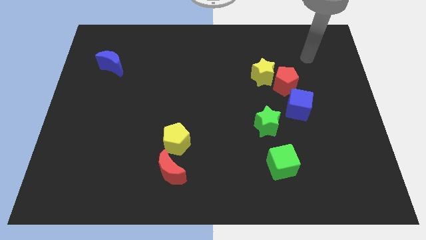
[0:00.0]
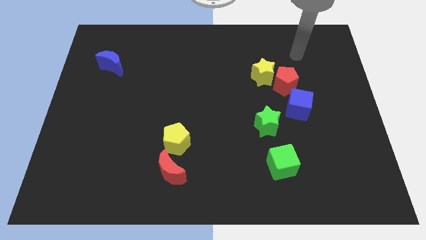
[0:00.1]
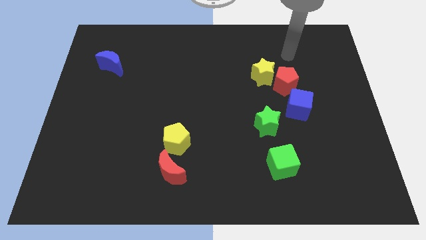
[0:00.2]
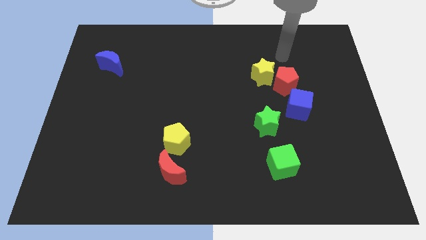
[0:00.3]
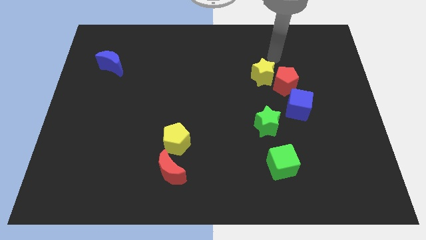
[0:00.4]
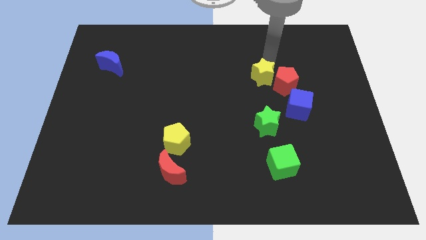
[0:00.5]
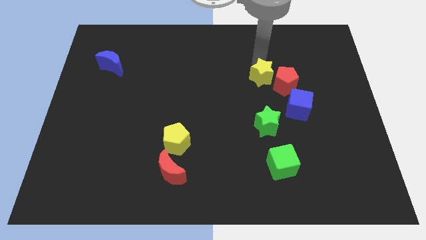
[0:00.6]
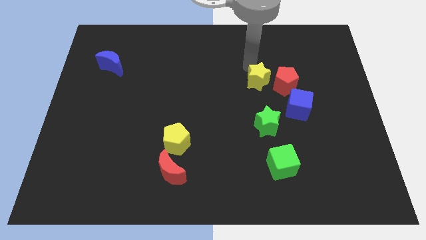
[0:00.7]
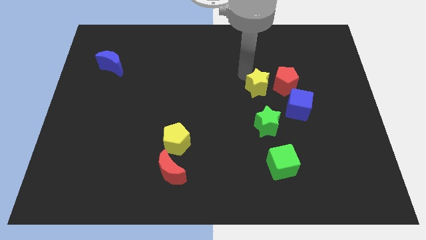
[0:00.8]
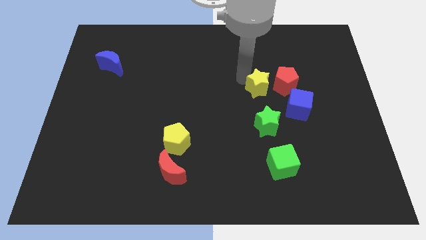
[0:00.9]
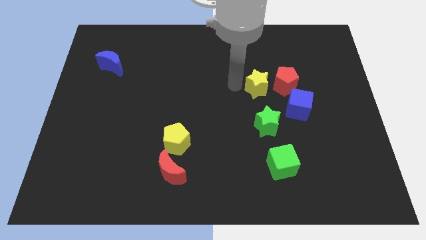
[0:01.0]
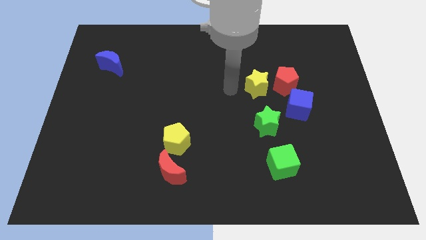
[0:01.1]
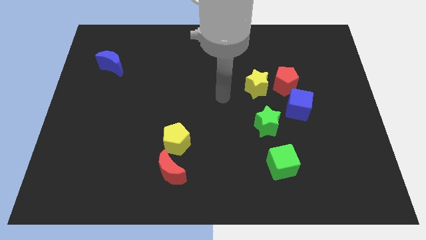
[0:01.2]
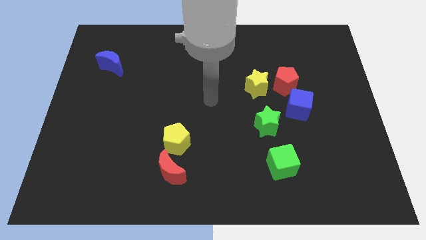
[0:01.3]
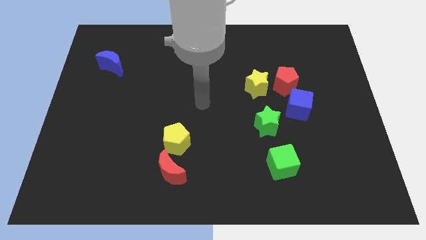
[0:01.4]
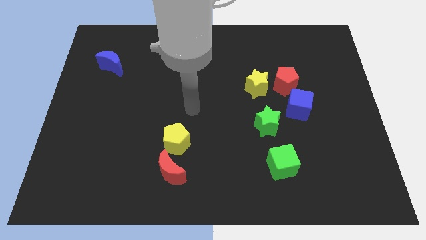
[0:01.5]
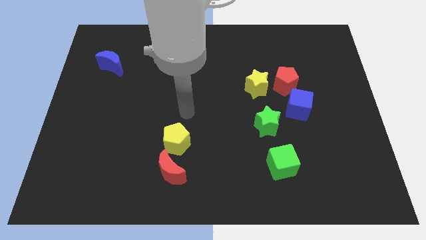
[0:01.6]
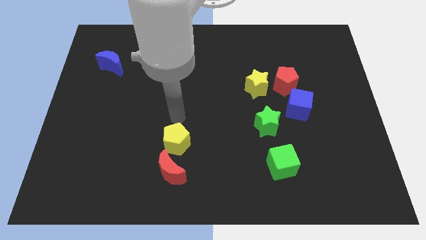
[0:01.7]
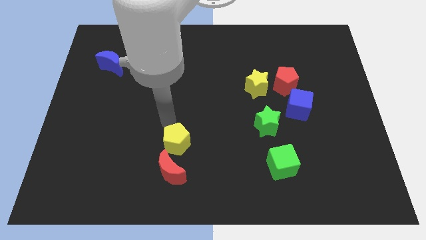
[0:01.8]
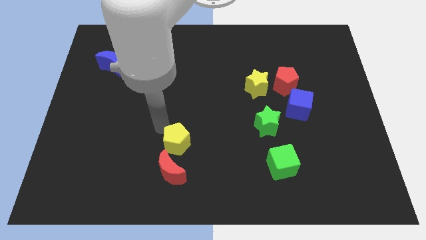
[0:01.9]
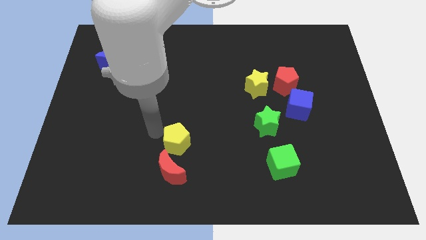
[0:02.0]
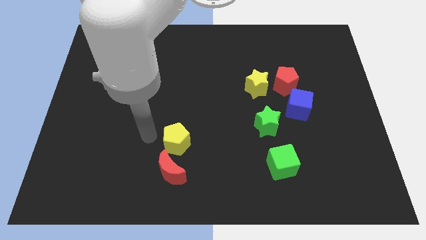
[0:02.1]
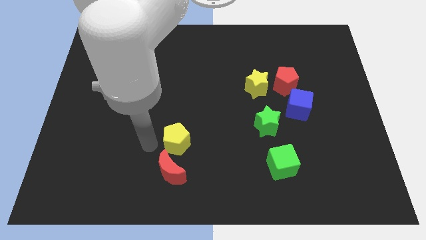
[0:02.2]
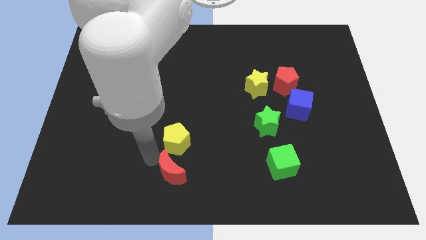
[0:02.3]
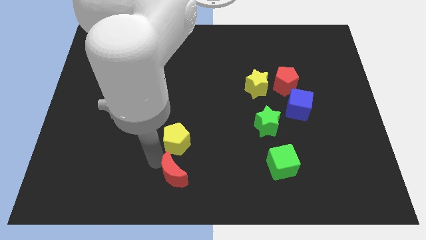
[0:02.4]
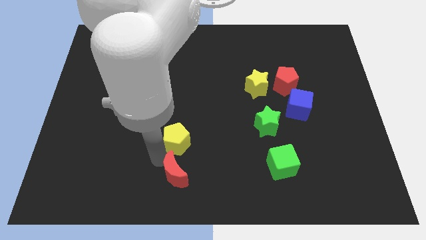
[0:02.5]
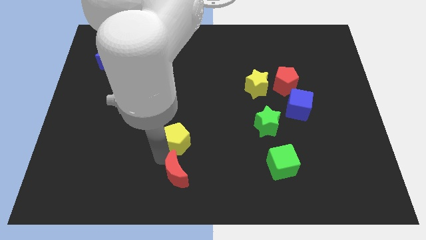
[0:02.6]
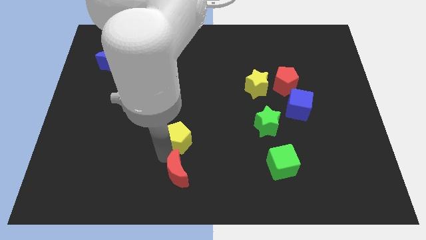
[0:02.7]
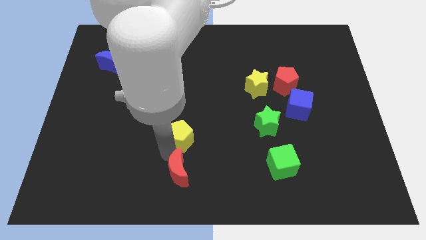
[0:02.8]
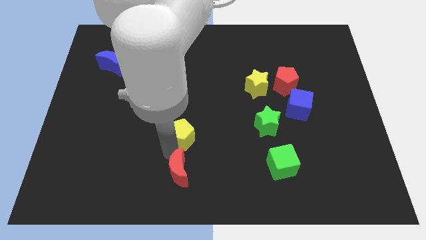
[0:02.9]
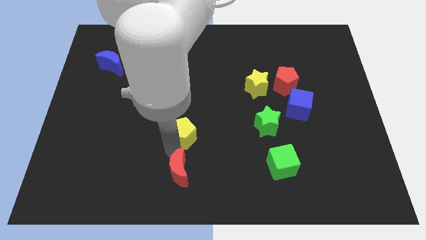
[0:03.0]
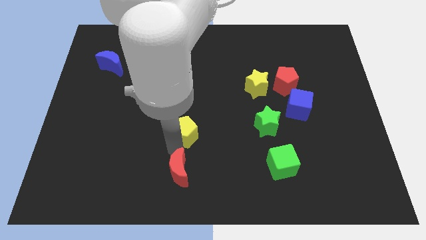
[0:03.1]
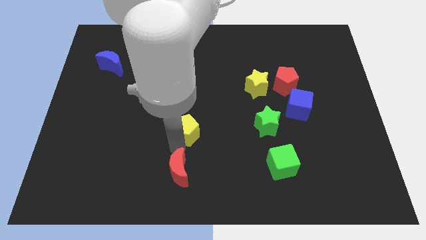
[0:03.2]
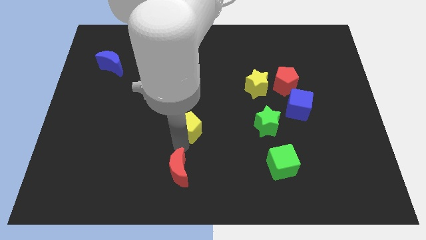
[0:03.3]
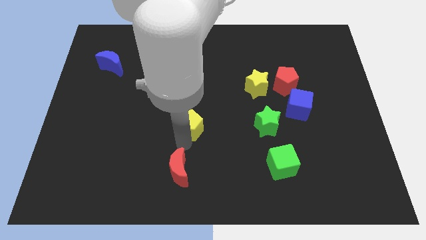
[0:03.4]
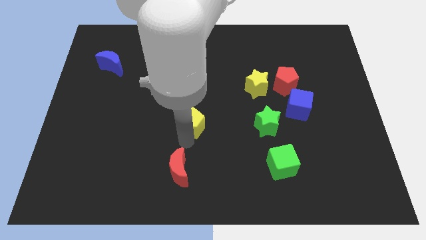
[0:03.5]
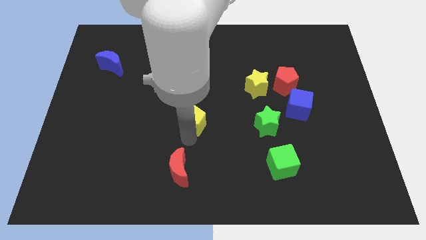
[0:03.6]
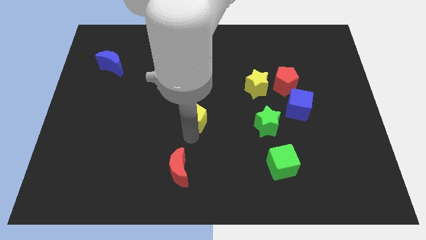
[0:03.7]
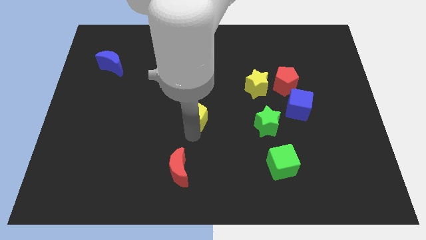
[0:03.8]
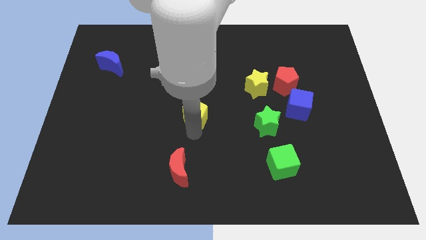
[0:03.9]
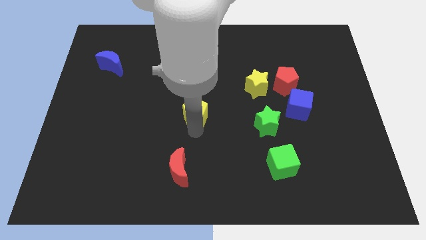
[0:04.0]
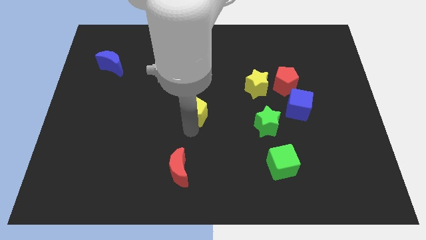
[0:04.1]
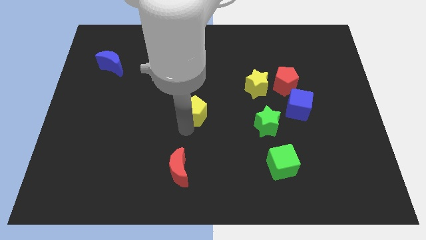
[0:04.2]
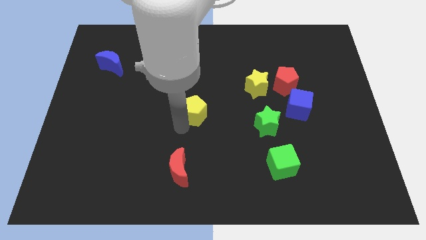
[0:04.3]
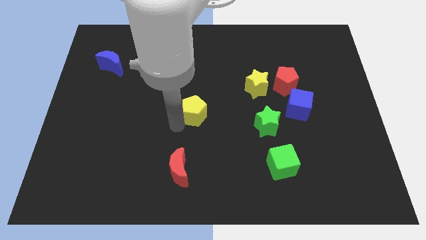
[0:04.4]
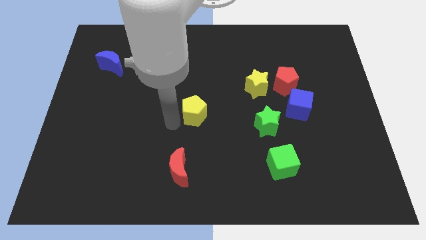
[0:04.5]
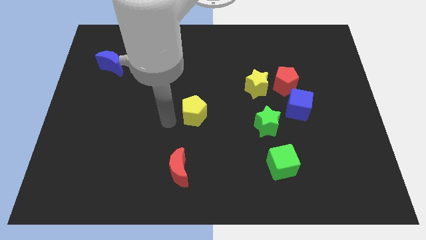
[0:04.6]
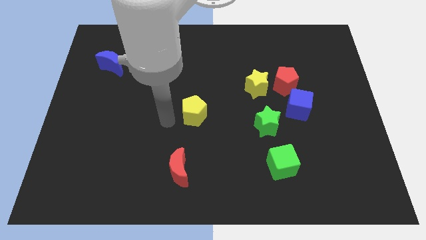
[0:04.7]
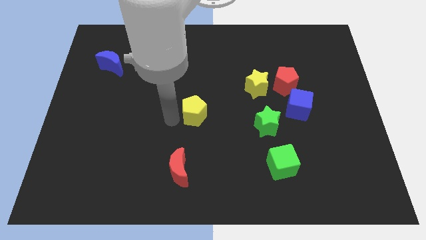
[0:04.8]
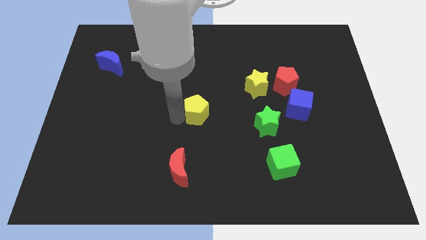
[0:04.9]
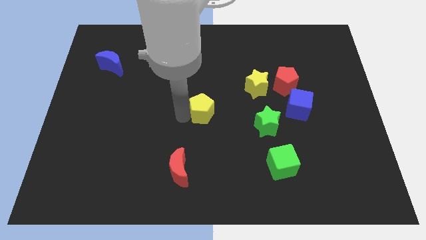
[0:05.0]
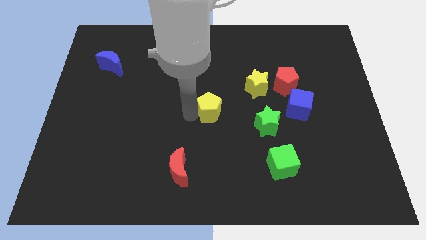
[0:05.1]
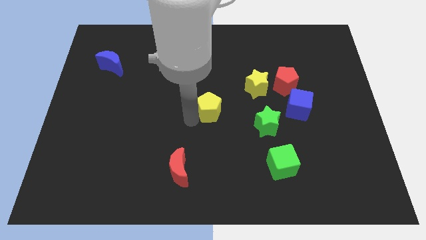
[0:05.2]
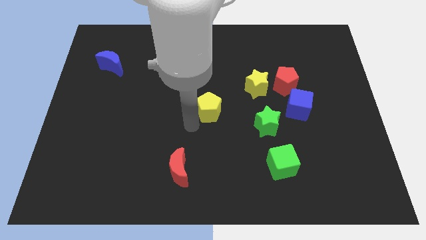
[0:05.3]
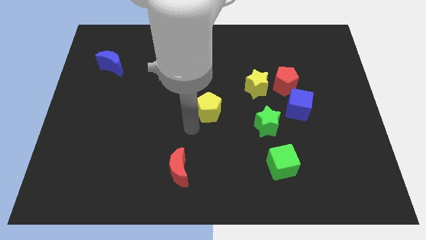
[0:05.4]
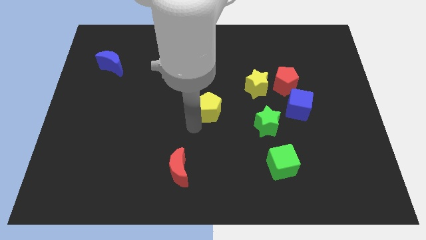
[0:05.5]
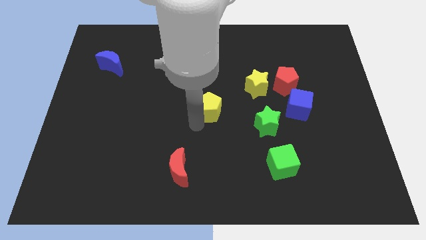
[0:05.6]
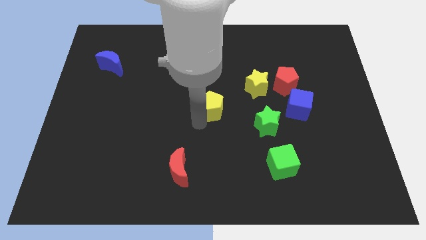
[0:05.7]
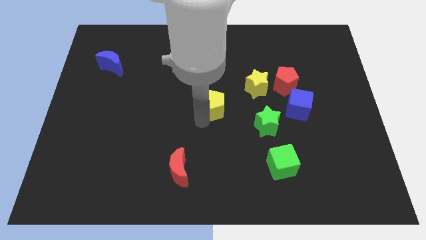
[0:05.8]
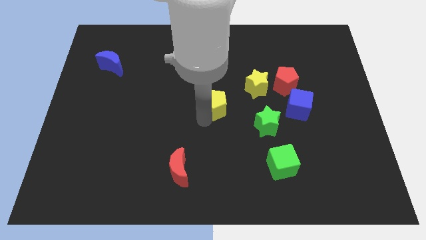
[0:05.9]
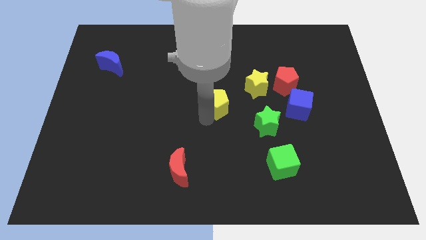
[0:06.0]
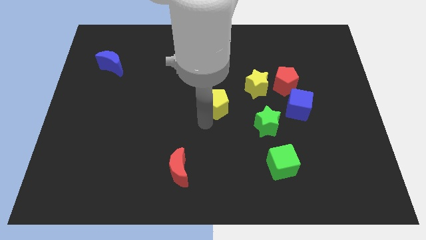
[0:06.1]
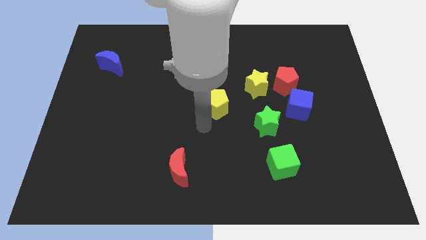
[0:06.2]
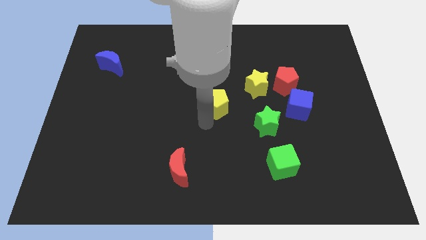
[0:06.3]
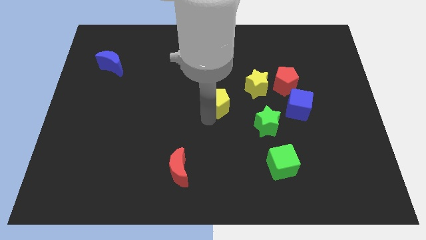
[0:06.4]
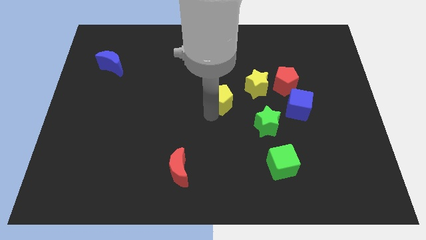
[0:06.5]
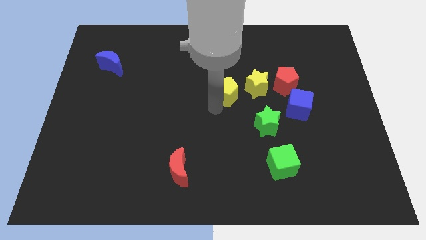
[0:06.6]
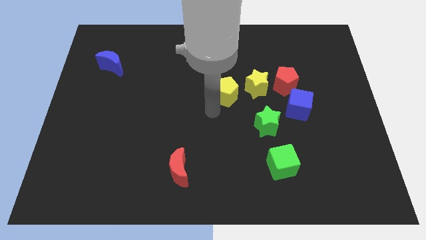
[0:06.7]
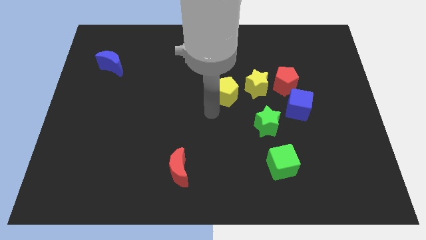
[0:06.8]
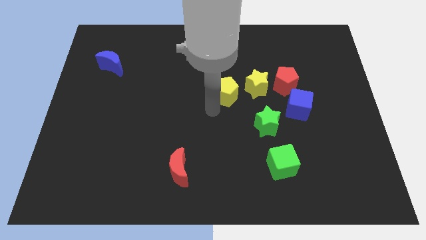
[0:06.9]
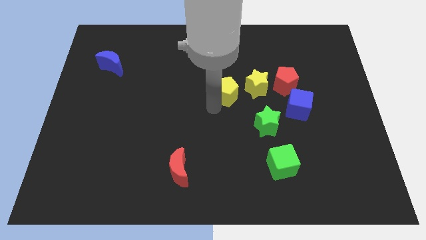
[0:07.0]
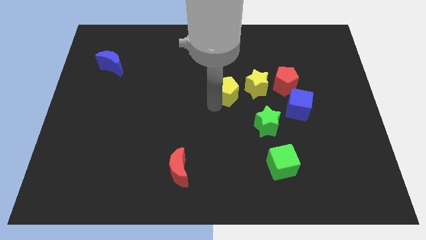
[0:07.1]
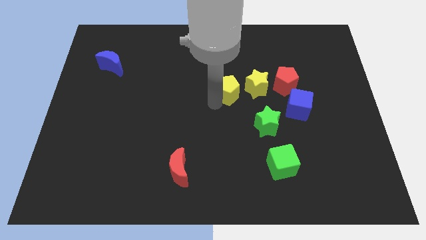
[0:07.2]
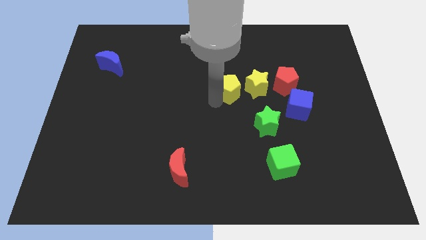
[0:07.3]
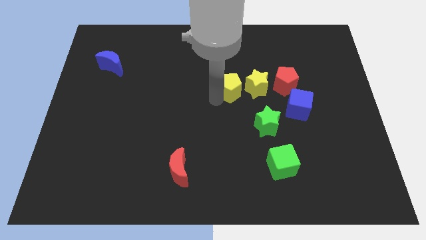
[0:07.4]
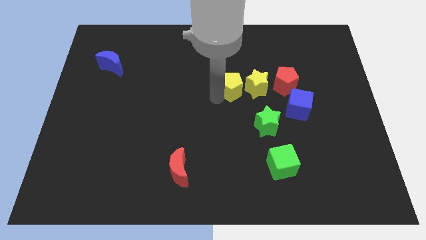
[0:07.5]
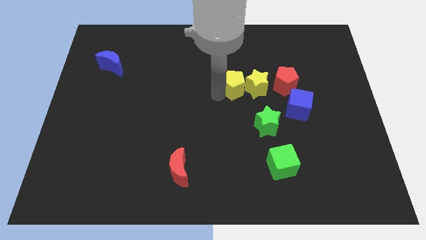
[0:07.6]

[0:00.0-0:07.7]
push the yellow pentagon up and right

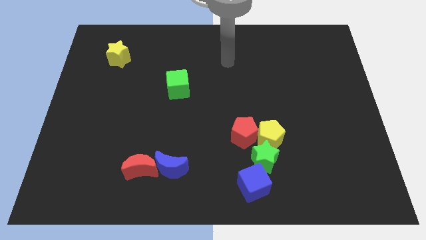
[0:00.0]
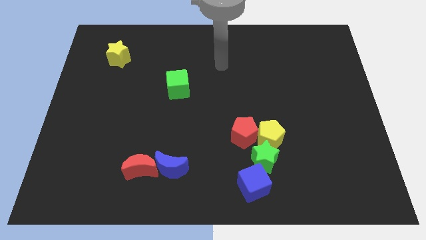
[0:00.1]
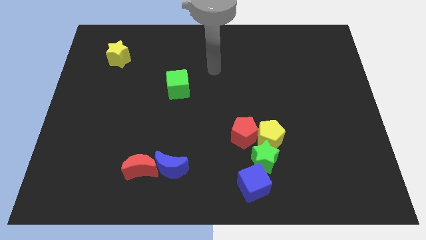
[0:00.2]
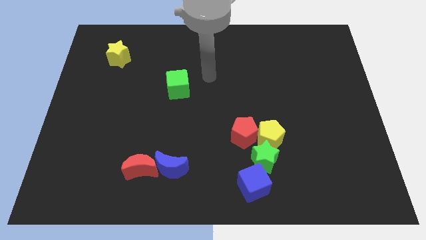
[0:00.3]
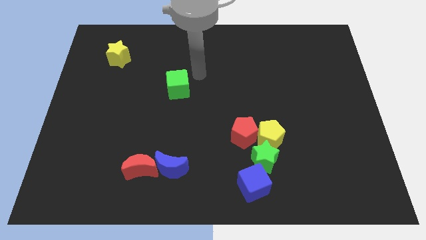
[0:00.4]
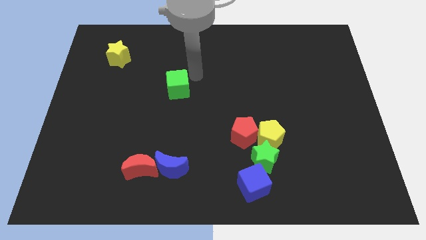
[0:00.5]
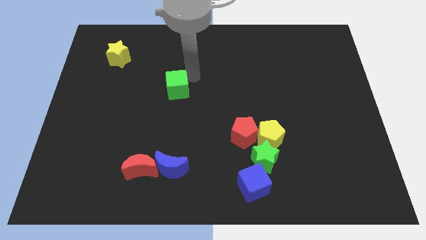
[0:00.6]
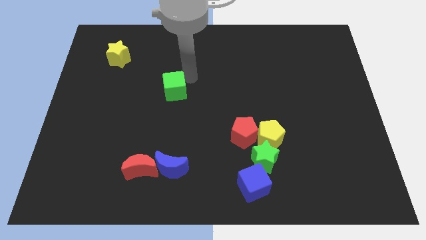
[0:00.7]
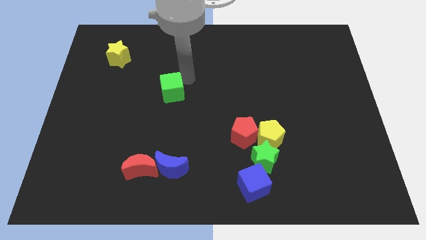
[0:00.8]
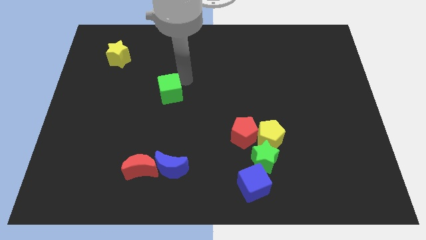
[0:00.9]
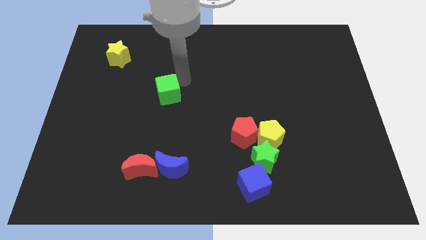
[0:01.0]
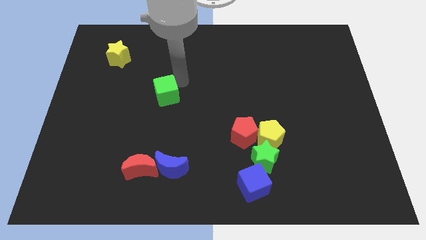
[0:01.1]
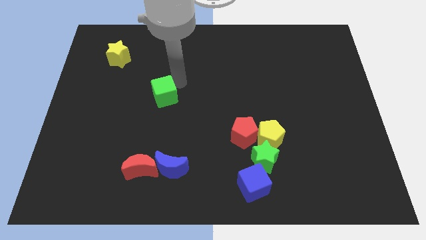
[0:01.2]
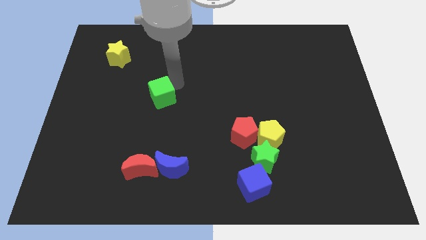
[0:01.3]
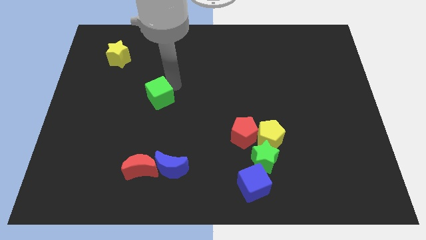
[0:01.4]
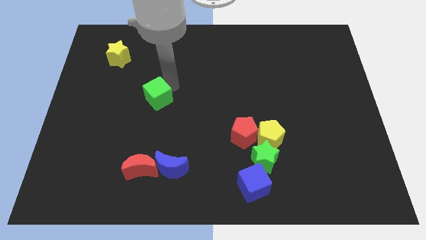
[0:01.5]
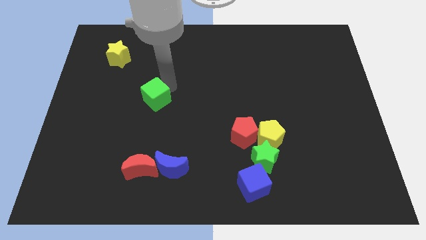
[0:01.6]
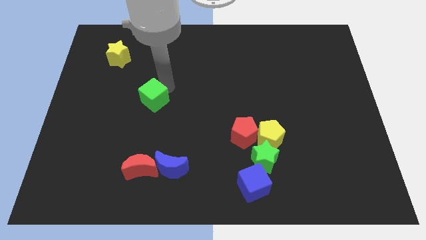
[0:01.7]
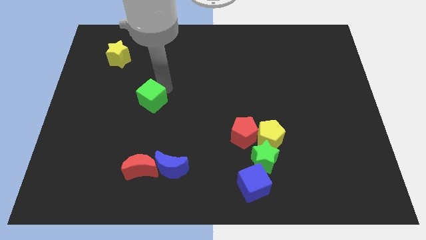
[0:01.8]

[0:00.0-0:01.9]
move the green cube slightly down and then left
